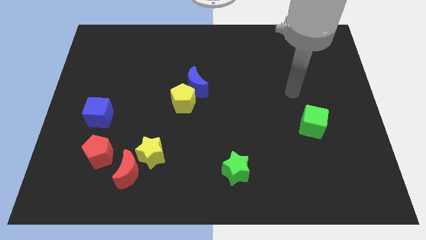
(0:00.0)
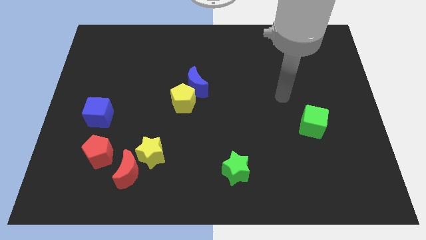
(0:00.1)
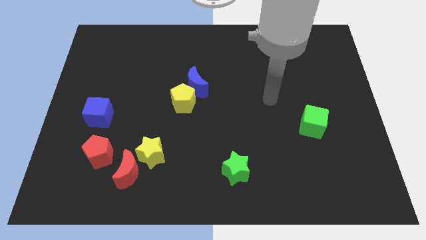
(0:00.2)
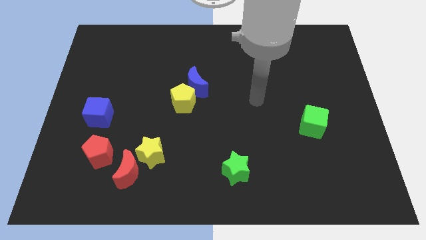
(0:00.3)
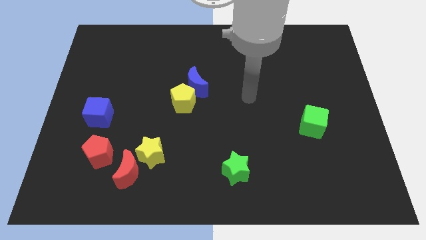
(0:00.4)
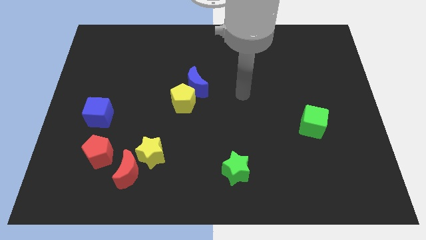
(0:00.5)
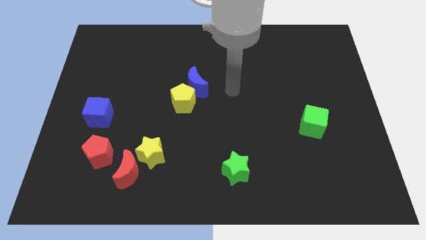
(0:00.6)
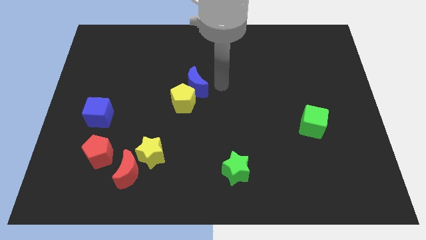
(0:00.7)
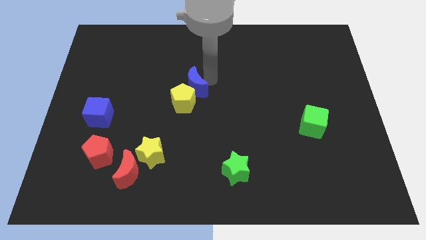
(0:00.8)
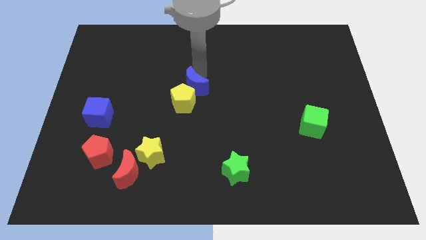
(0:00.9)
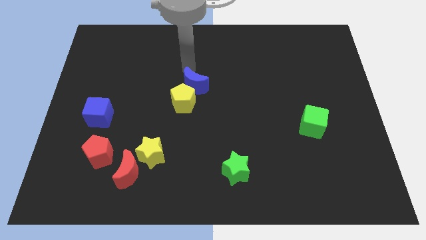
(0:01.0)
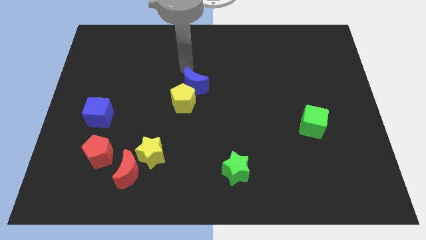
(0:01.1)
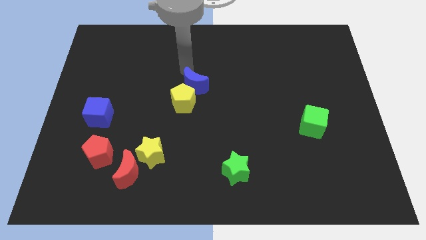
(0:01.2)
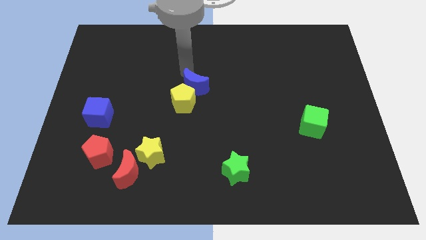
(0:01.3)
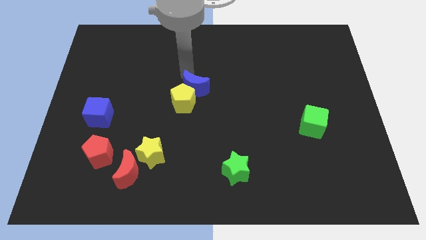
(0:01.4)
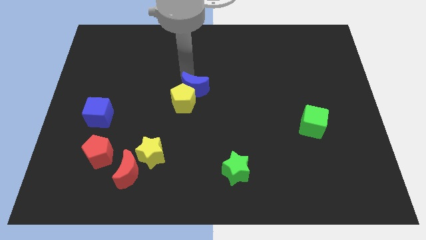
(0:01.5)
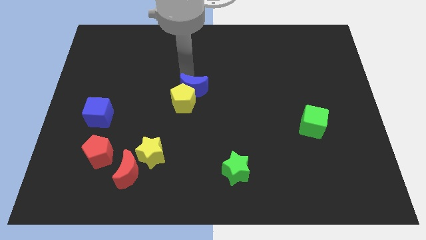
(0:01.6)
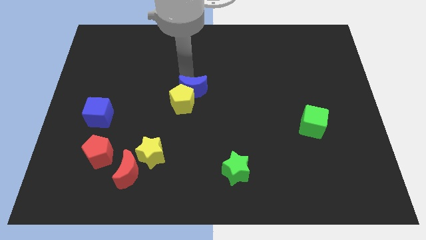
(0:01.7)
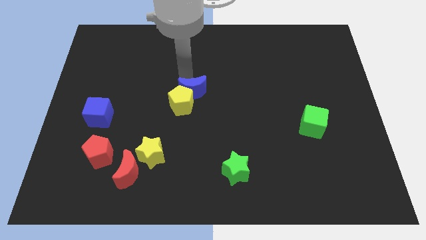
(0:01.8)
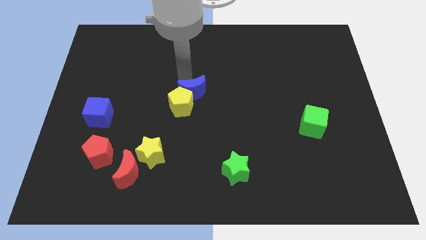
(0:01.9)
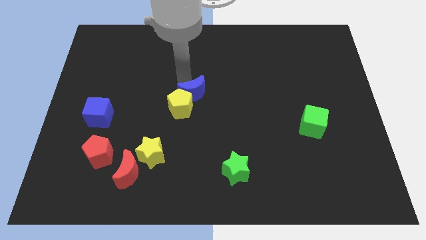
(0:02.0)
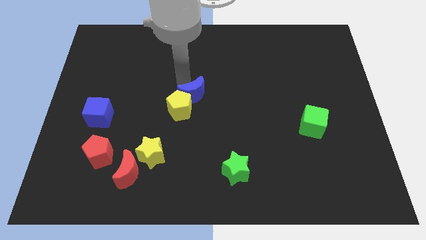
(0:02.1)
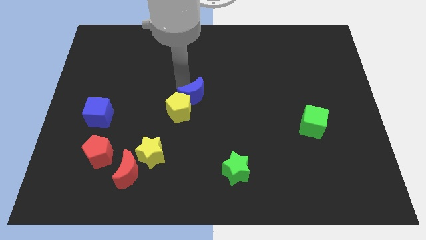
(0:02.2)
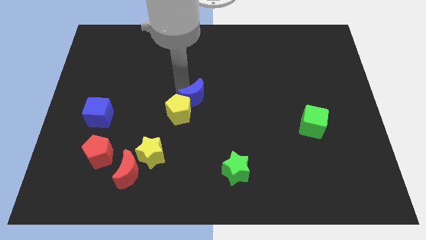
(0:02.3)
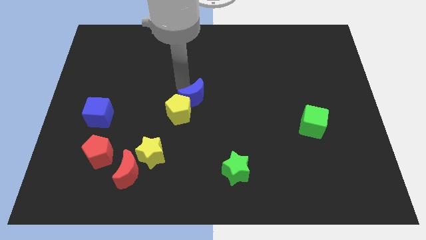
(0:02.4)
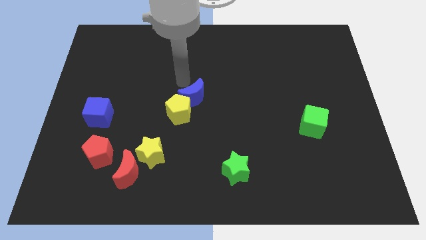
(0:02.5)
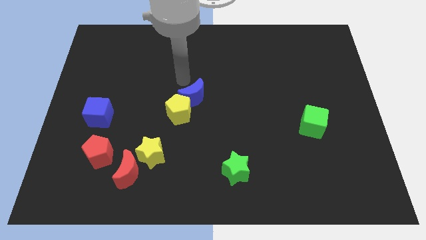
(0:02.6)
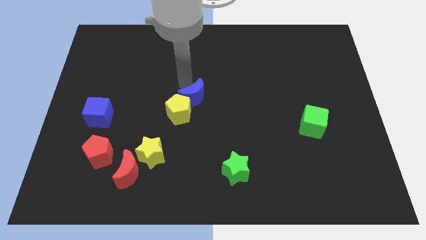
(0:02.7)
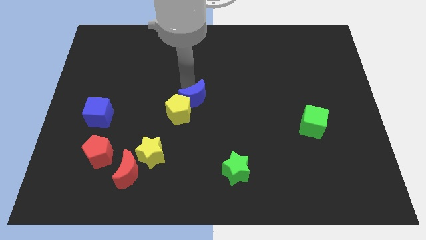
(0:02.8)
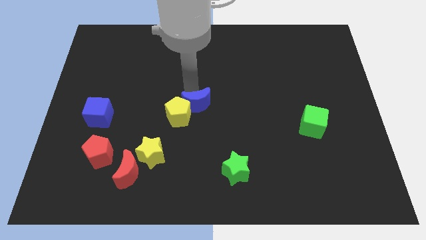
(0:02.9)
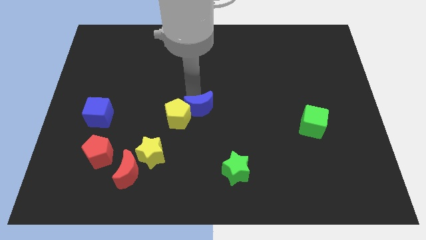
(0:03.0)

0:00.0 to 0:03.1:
slide the blue moon down a bit

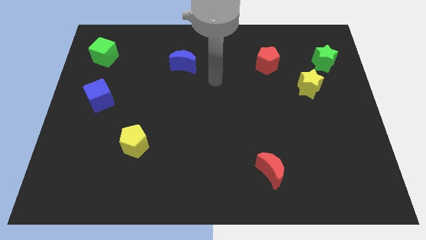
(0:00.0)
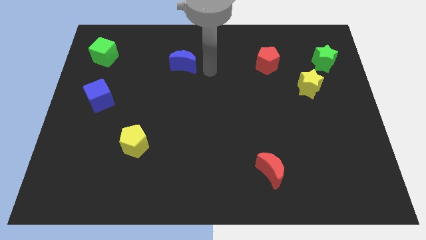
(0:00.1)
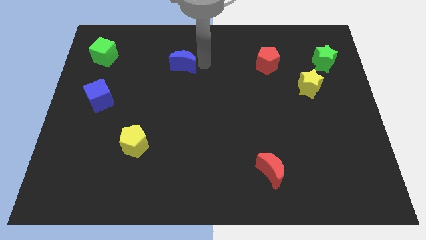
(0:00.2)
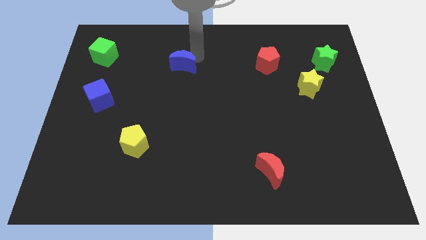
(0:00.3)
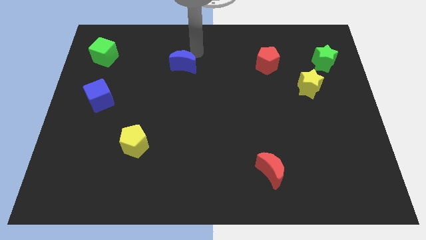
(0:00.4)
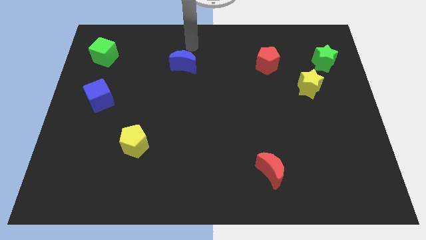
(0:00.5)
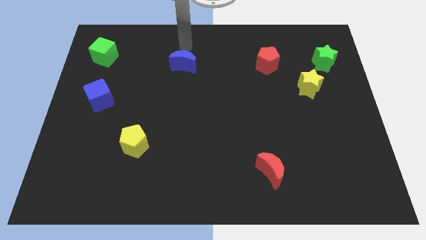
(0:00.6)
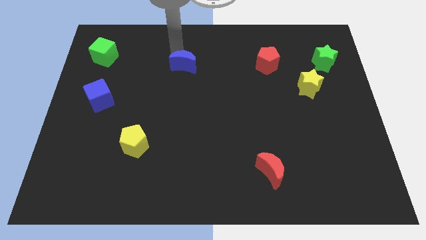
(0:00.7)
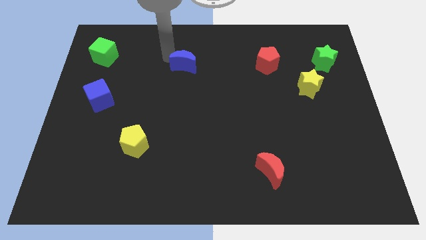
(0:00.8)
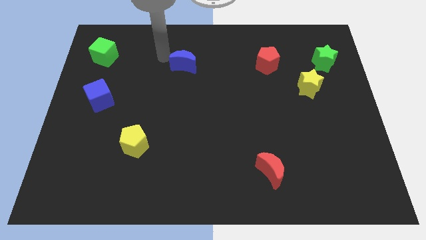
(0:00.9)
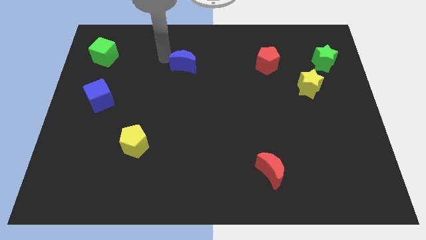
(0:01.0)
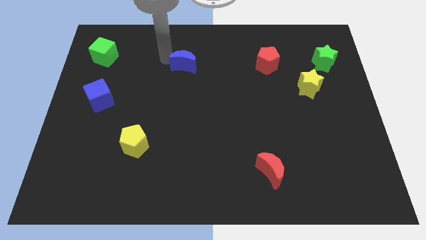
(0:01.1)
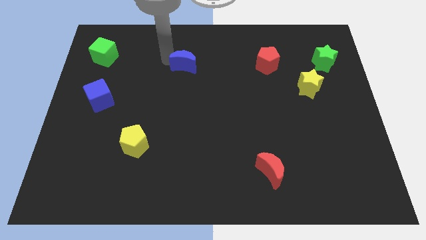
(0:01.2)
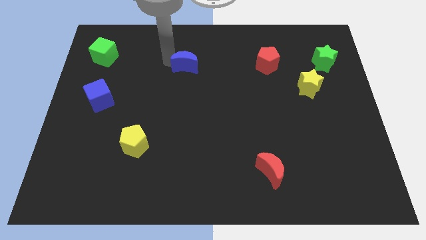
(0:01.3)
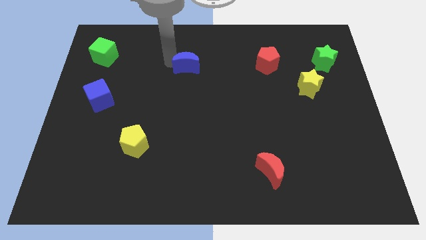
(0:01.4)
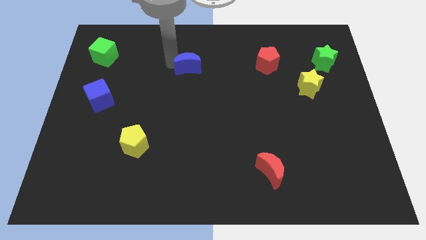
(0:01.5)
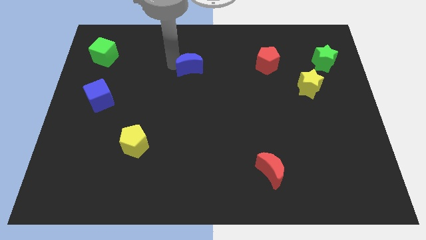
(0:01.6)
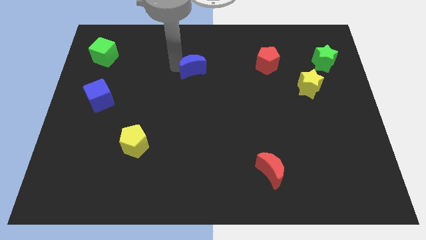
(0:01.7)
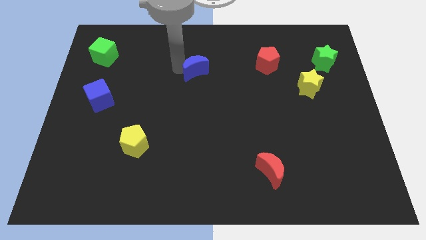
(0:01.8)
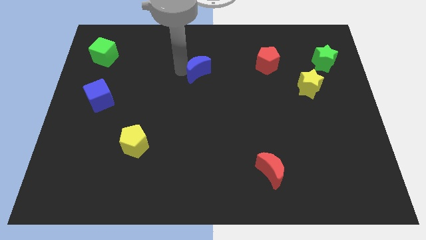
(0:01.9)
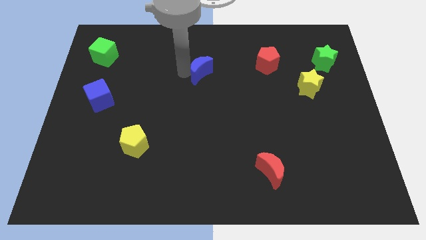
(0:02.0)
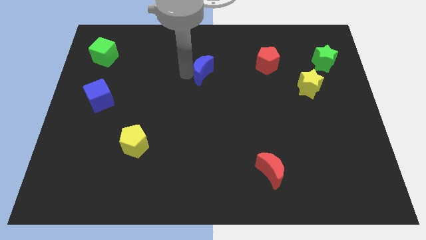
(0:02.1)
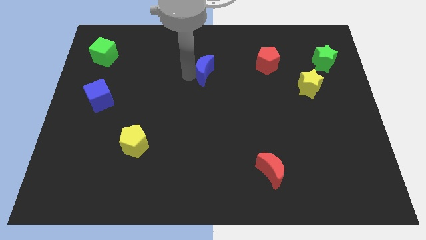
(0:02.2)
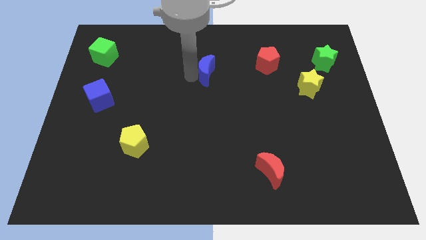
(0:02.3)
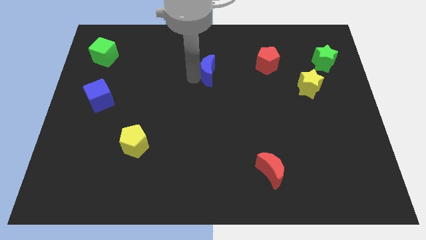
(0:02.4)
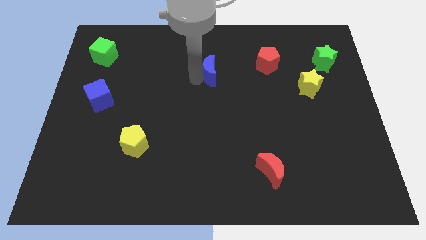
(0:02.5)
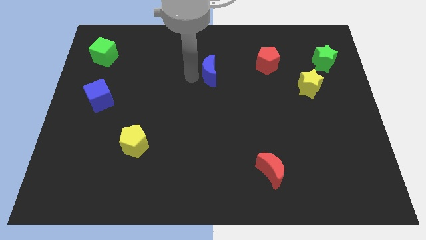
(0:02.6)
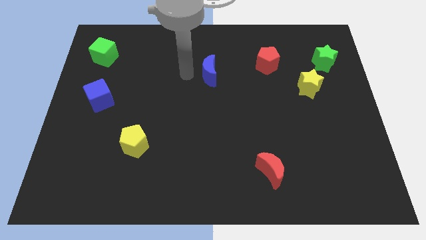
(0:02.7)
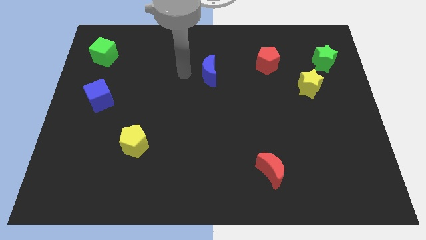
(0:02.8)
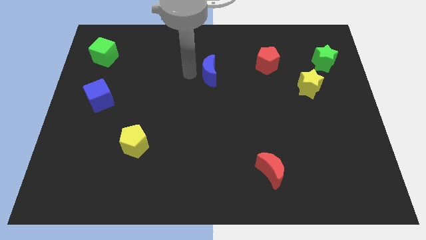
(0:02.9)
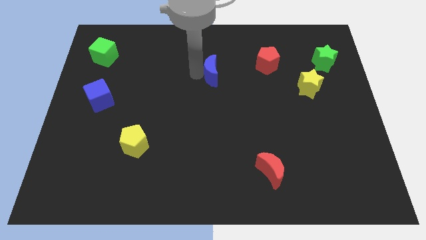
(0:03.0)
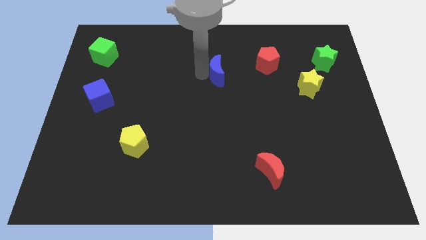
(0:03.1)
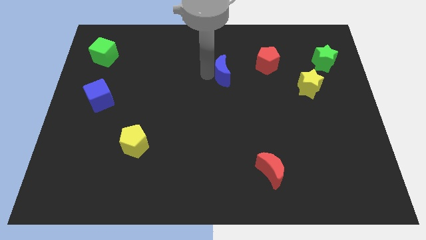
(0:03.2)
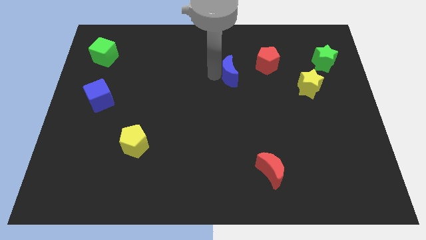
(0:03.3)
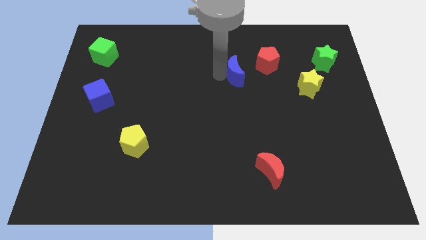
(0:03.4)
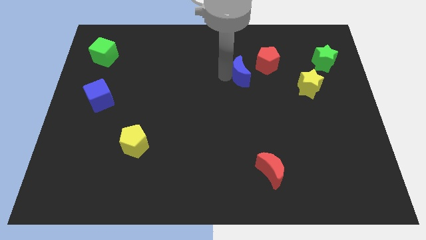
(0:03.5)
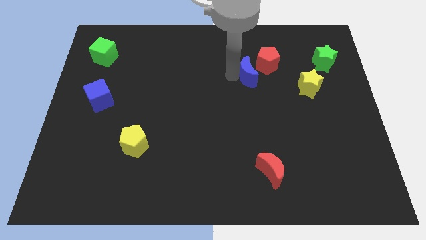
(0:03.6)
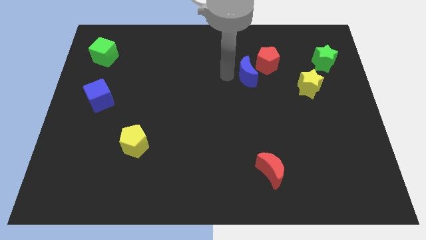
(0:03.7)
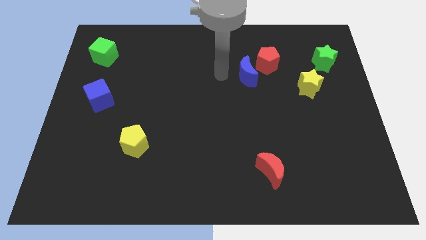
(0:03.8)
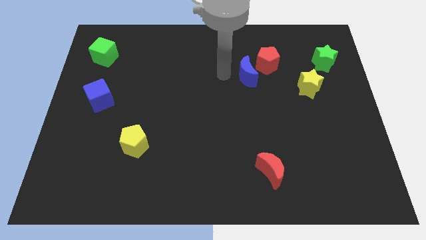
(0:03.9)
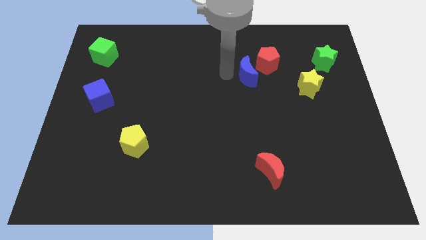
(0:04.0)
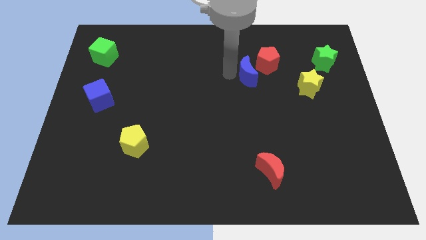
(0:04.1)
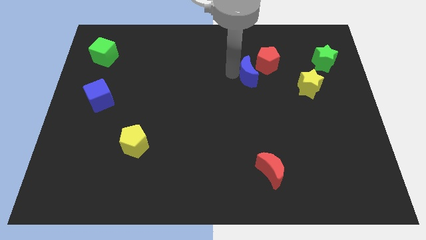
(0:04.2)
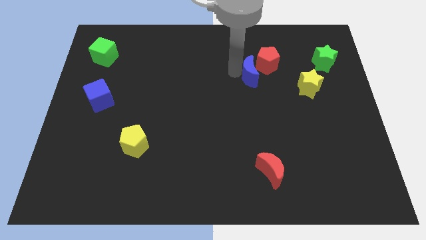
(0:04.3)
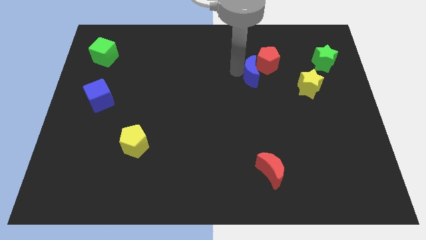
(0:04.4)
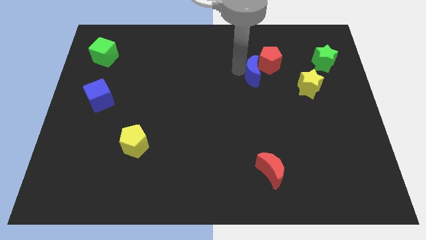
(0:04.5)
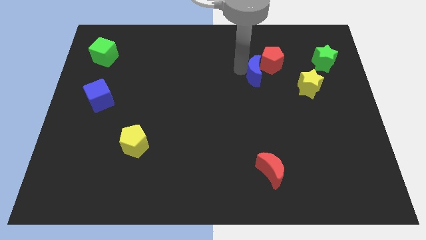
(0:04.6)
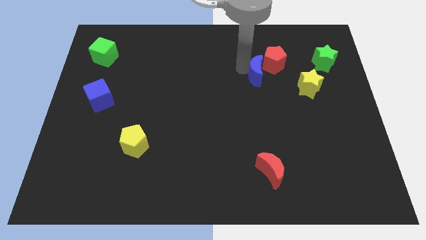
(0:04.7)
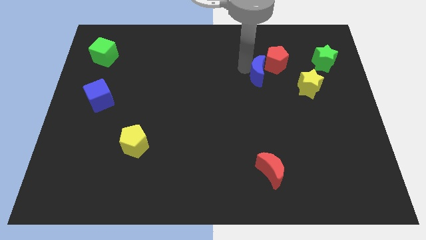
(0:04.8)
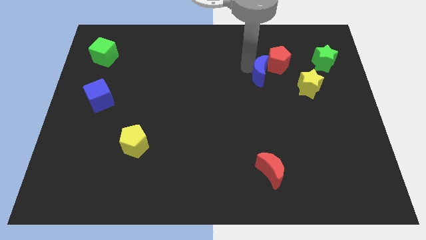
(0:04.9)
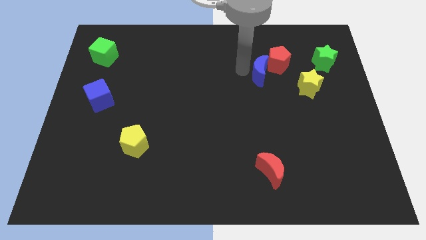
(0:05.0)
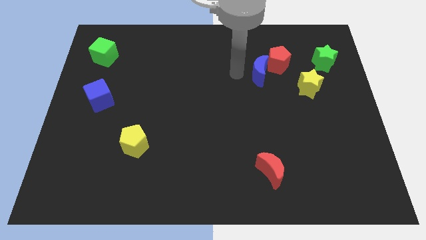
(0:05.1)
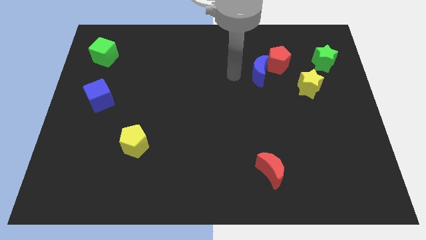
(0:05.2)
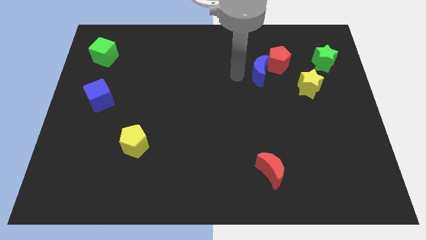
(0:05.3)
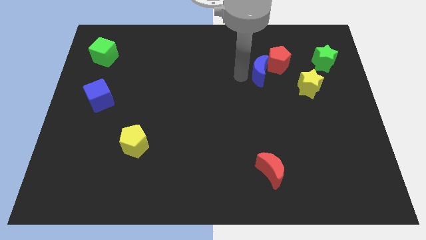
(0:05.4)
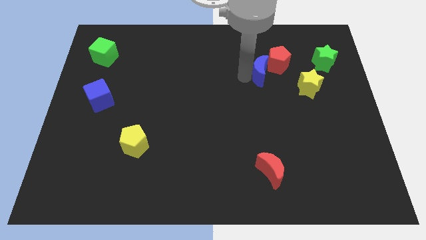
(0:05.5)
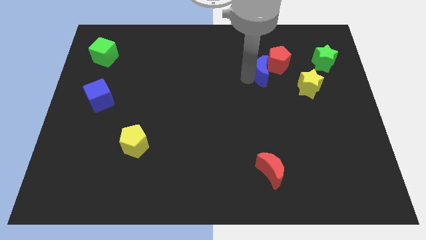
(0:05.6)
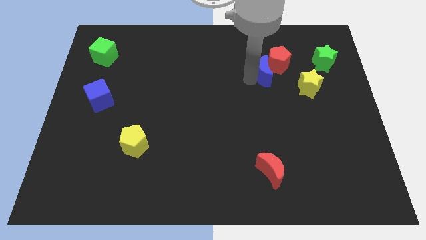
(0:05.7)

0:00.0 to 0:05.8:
slide the blue moon right
